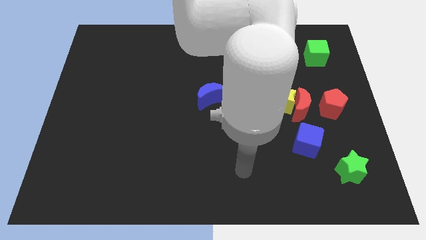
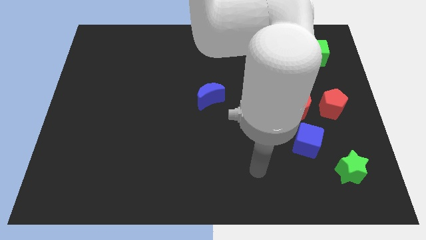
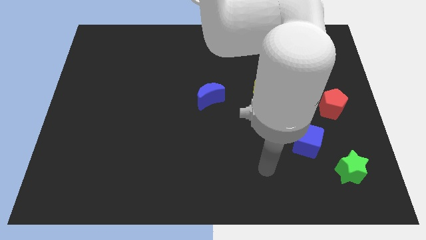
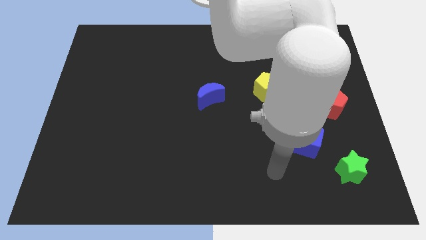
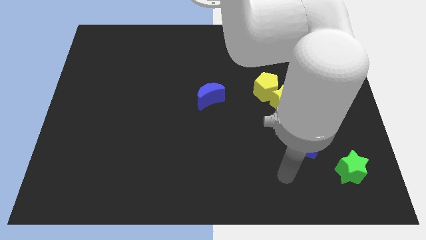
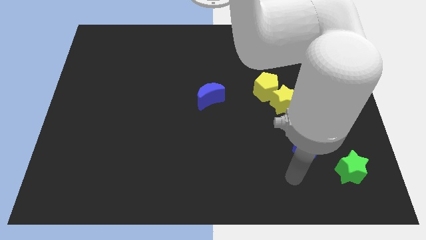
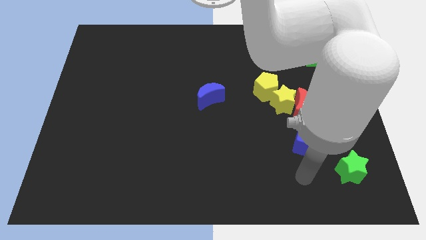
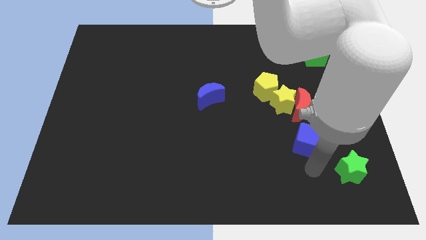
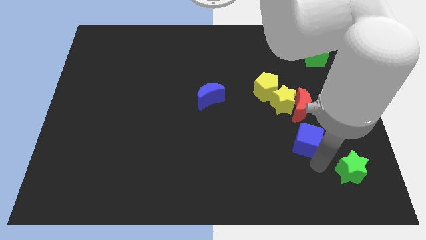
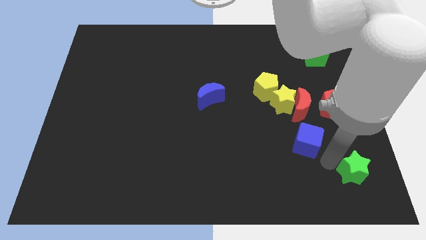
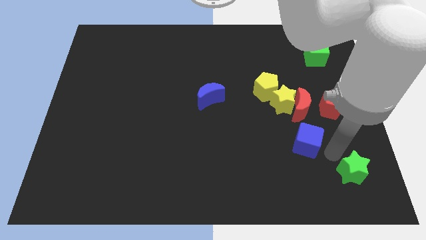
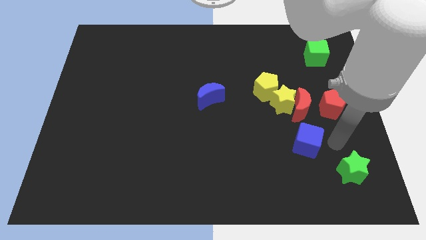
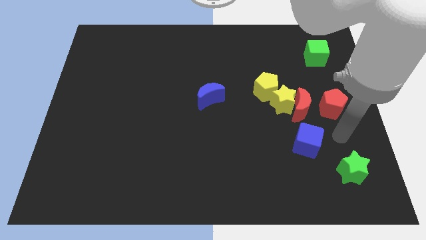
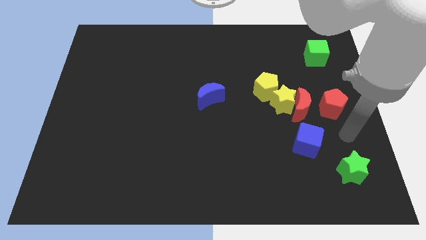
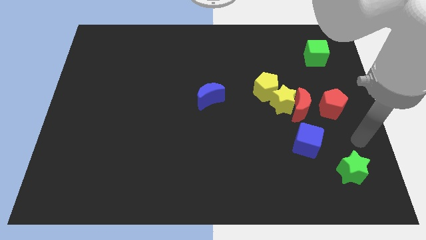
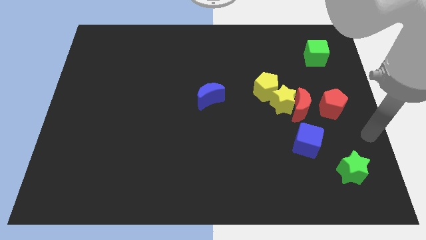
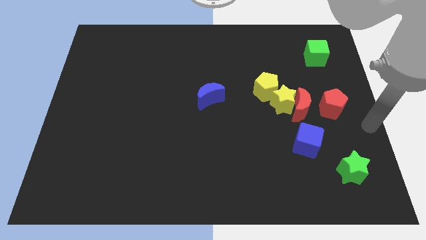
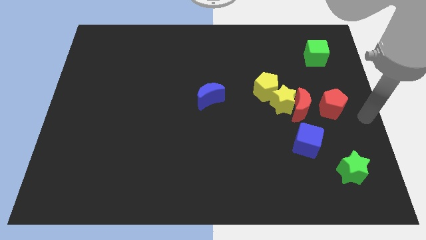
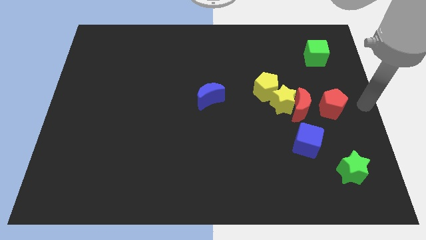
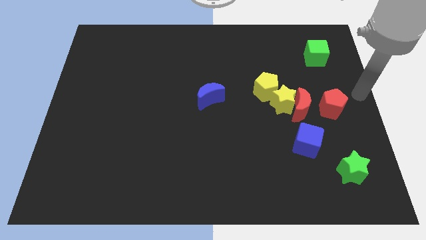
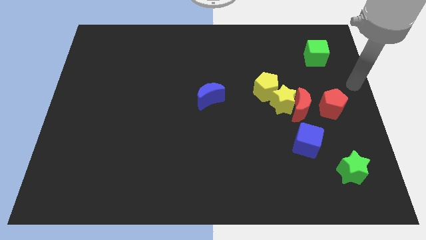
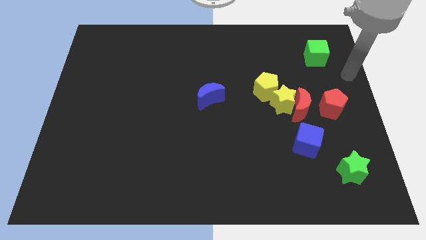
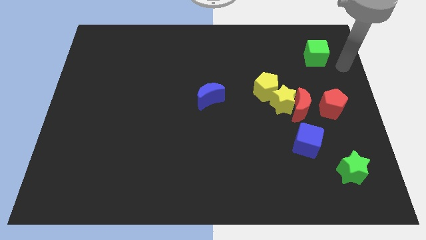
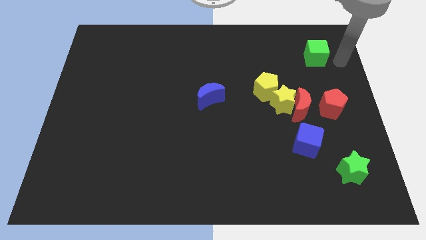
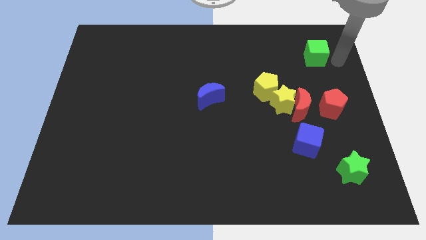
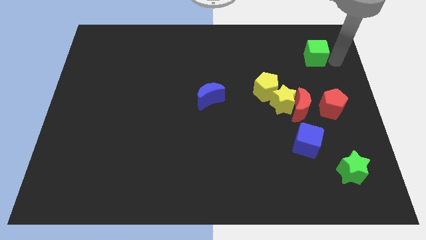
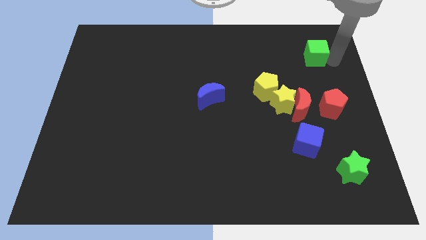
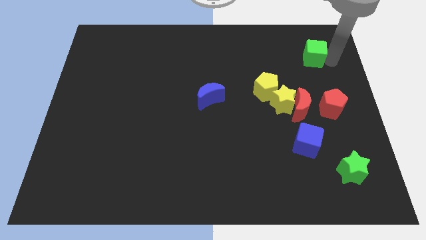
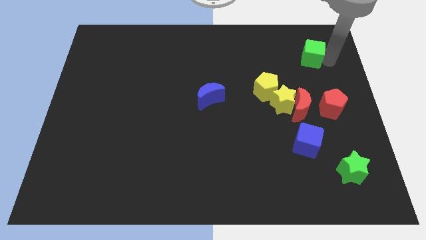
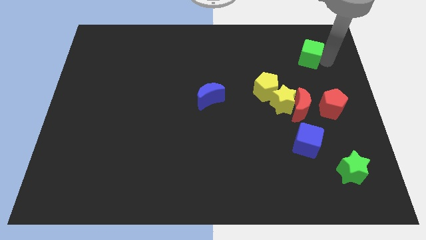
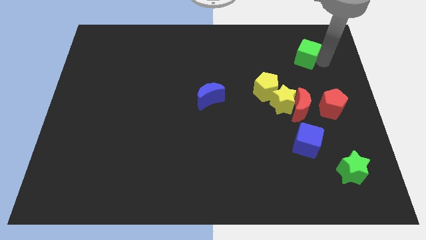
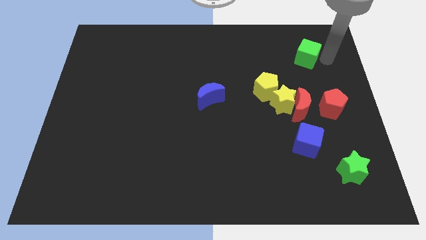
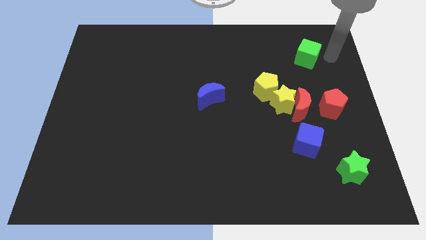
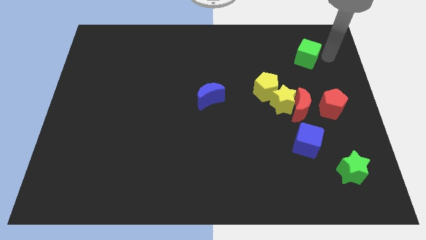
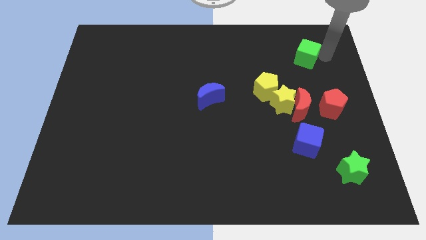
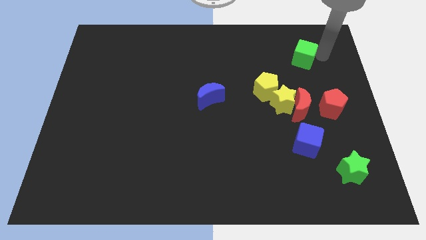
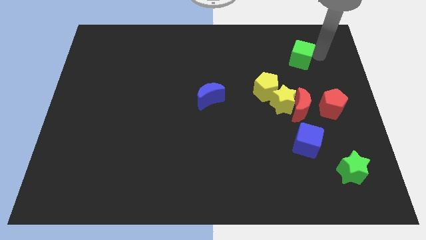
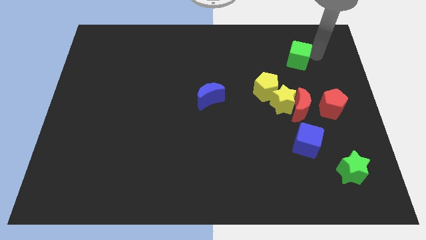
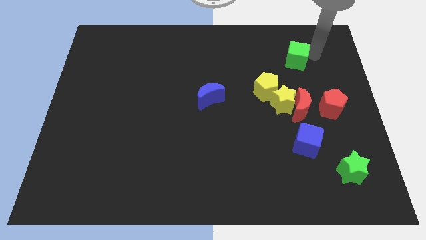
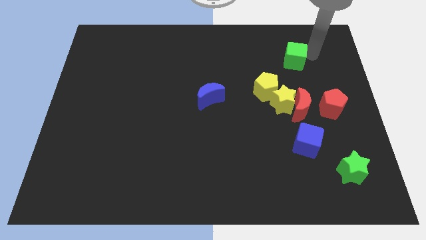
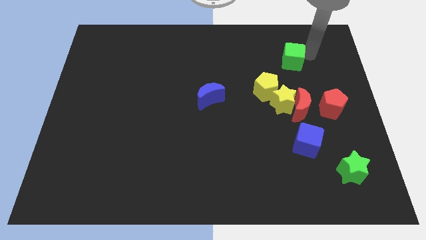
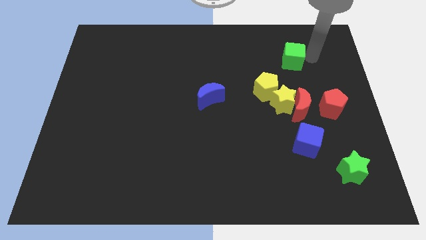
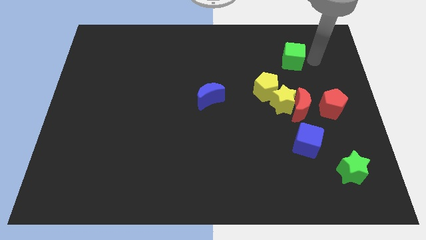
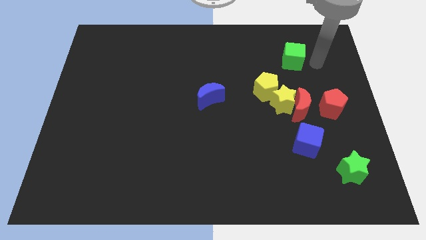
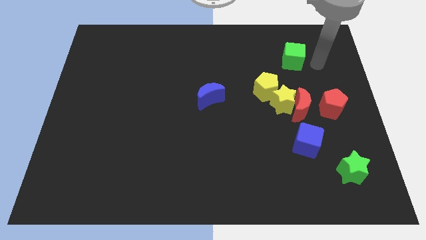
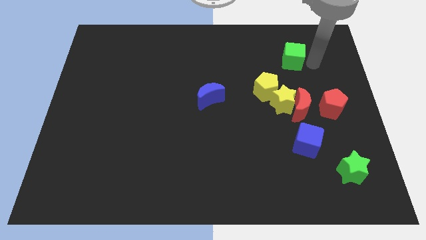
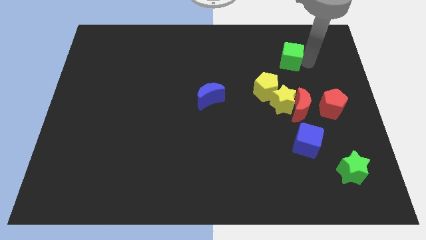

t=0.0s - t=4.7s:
push the green cube somewhat left

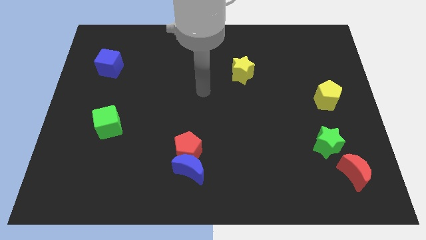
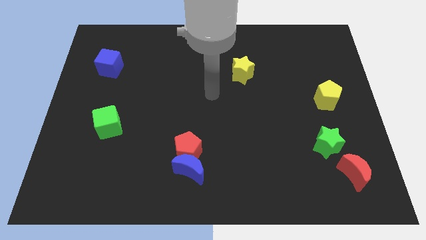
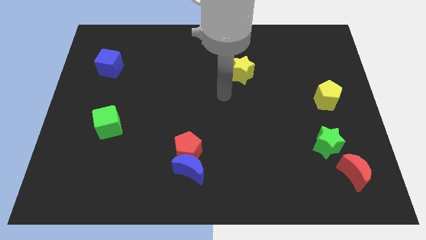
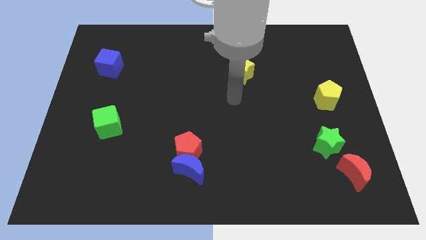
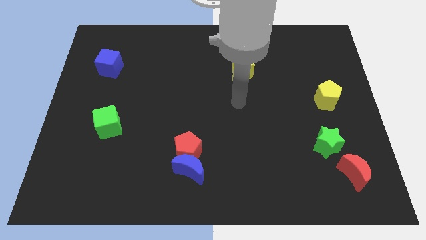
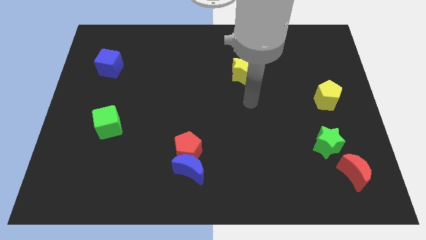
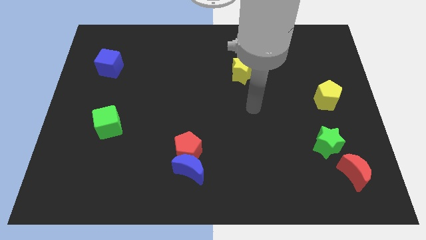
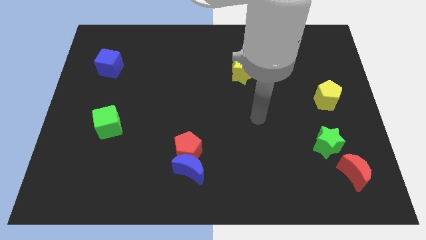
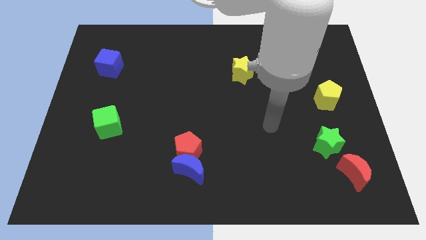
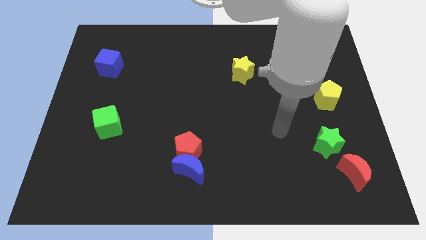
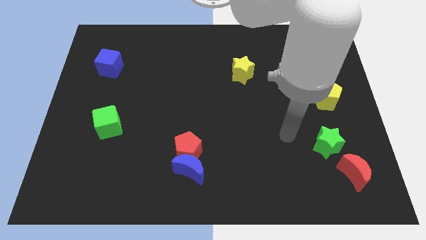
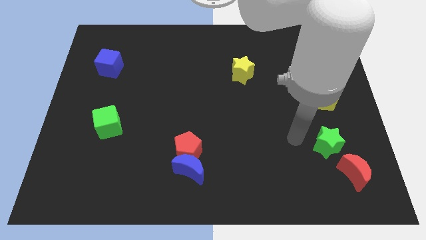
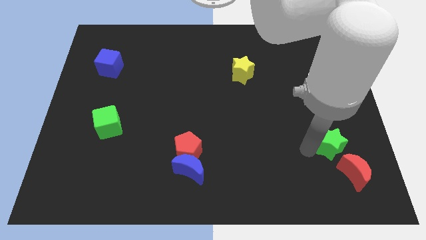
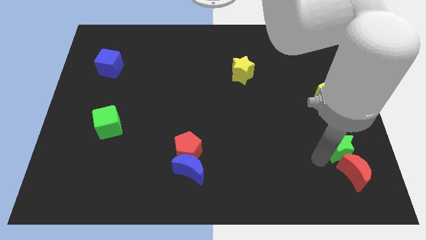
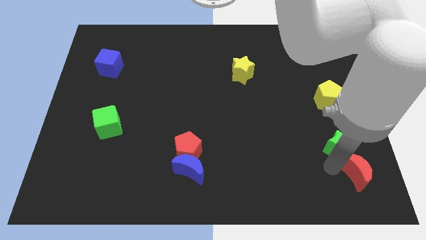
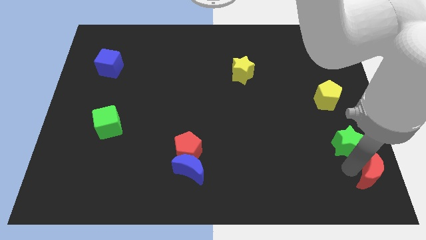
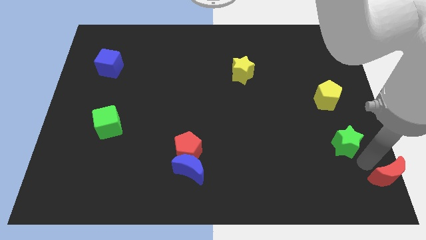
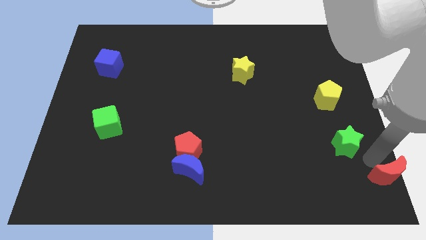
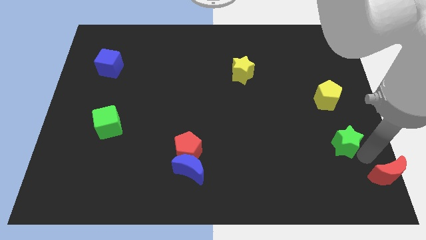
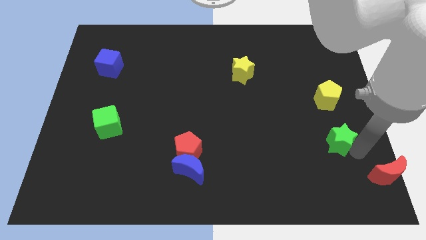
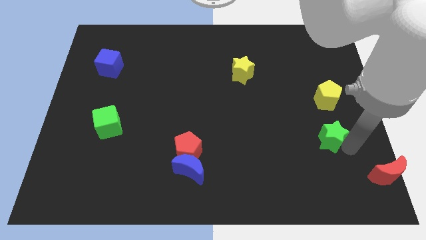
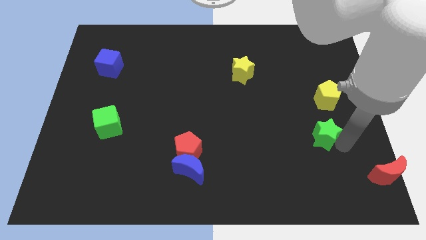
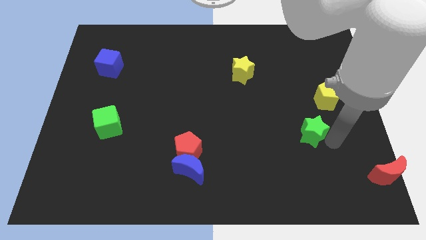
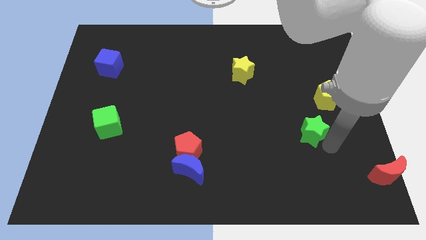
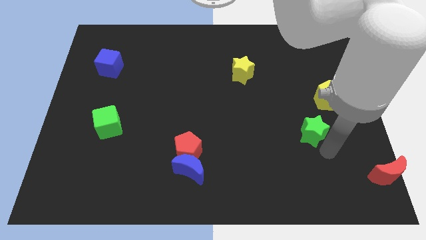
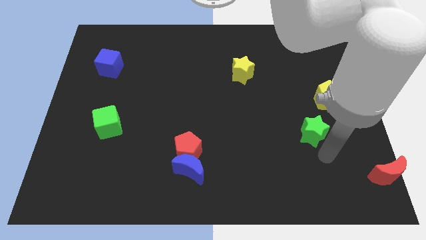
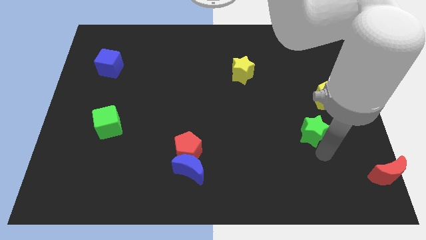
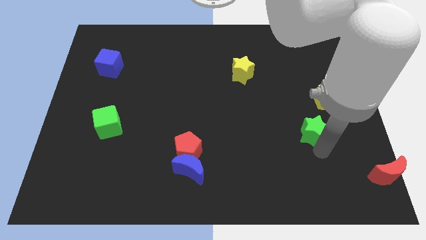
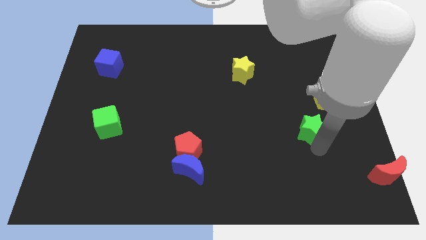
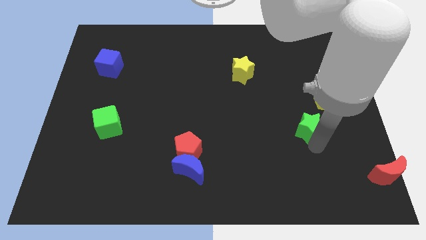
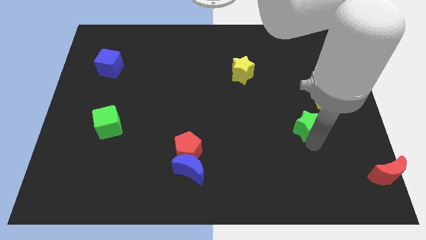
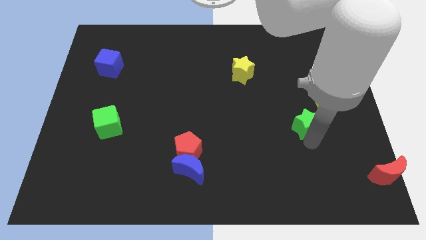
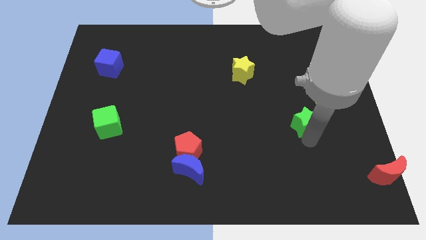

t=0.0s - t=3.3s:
move the green star a bit up and then left
